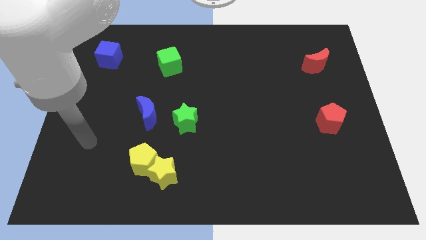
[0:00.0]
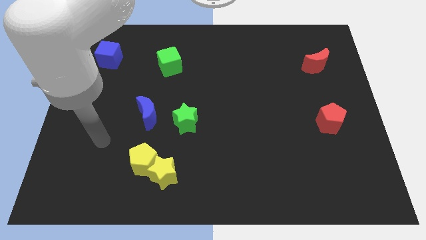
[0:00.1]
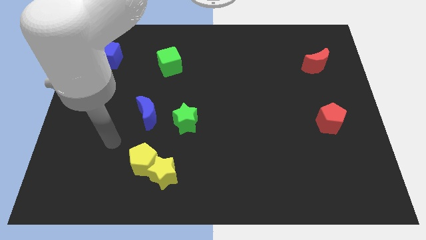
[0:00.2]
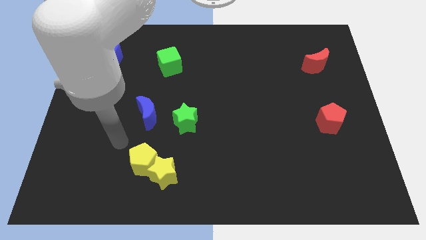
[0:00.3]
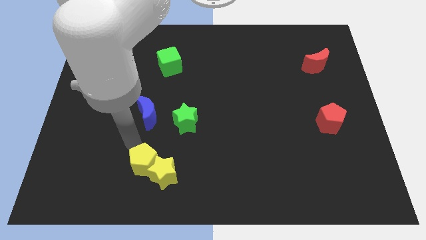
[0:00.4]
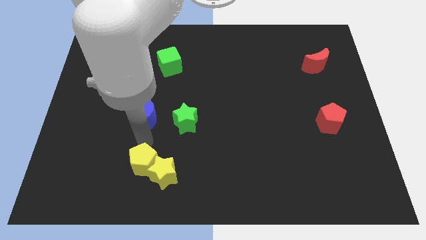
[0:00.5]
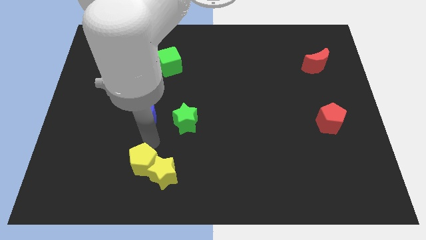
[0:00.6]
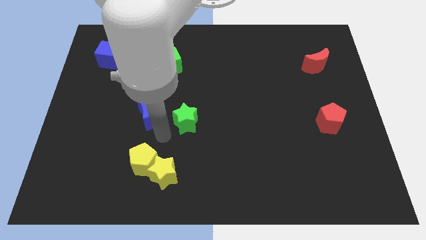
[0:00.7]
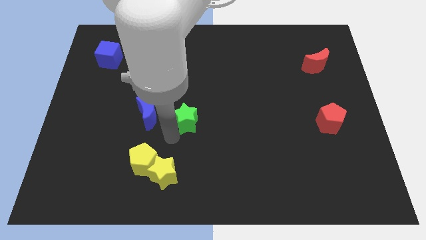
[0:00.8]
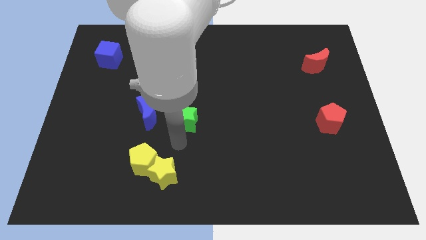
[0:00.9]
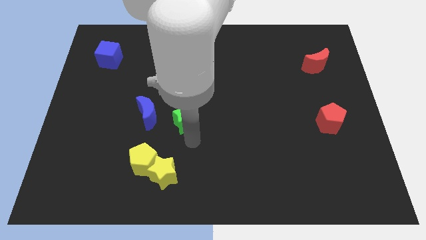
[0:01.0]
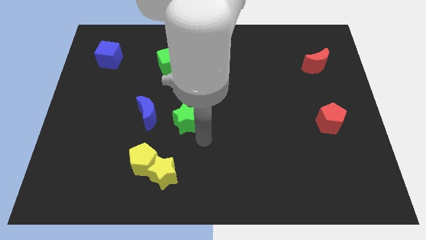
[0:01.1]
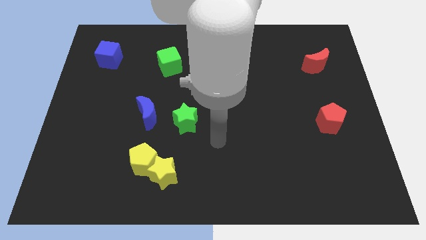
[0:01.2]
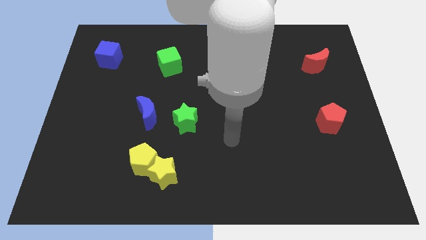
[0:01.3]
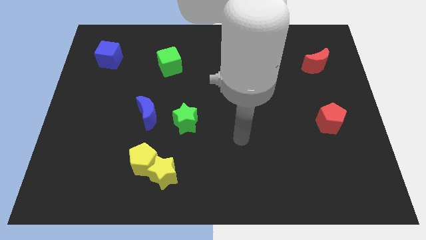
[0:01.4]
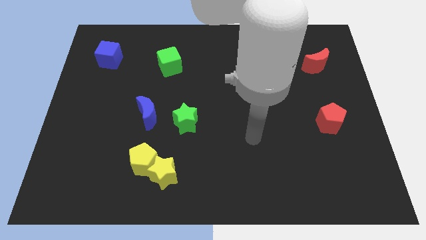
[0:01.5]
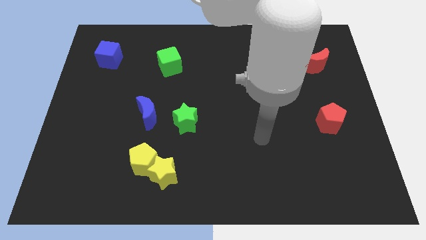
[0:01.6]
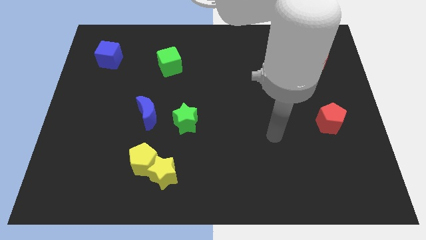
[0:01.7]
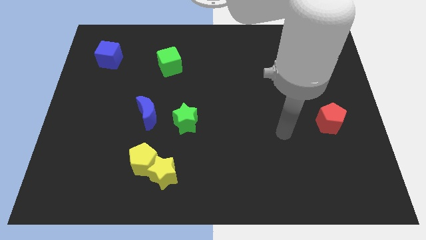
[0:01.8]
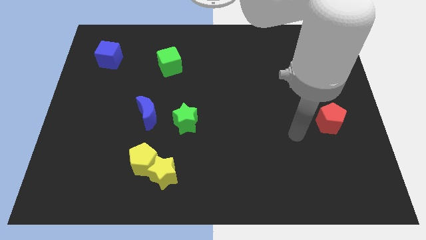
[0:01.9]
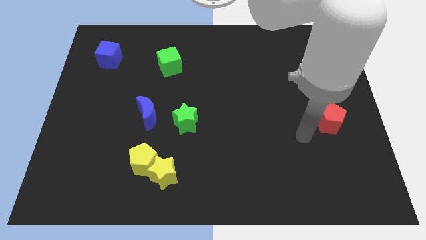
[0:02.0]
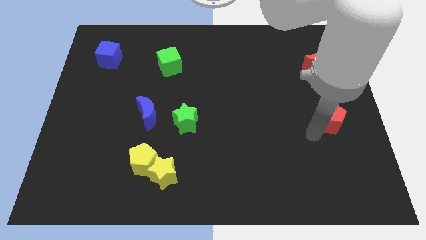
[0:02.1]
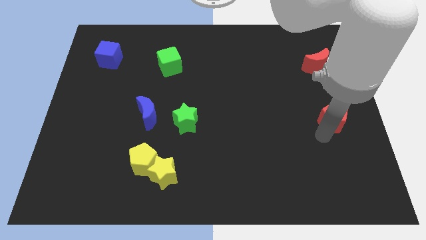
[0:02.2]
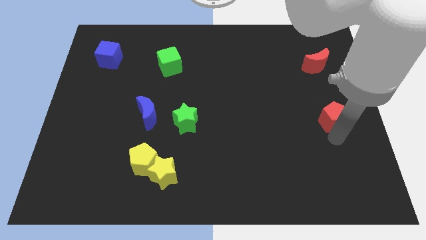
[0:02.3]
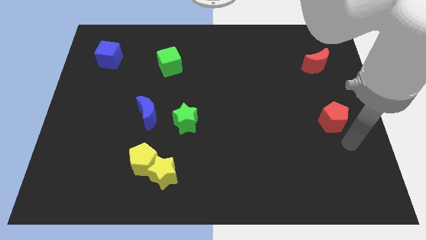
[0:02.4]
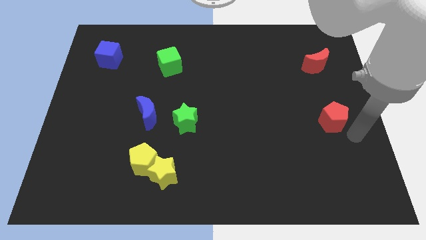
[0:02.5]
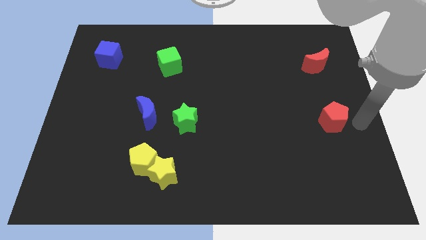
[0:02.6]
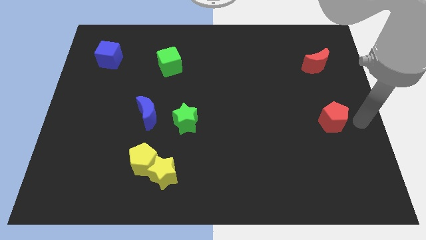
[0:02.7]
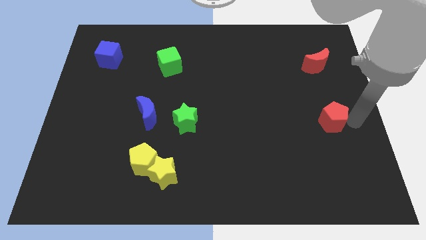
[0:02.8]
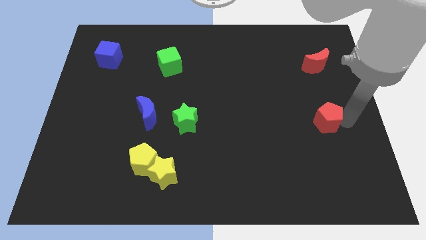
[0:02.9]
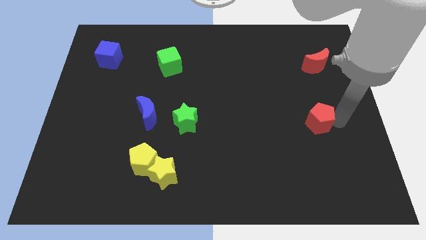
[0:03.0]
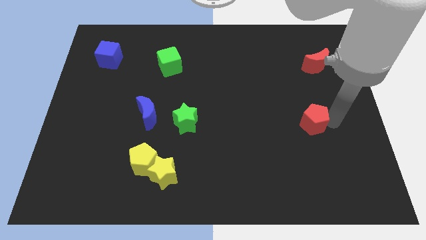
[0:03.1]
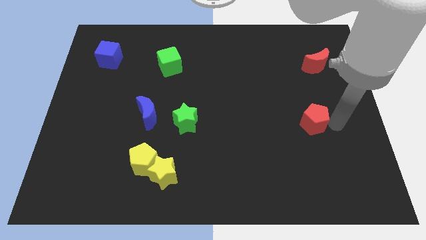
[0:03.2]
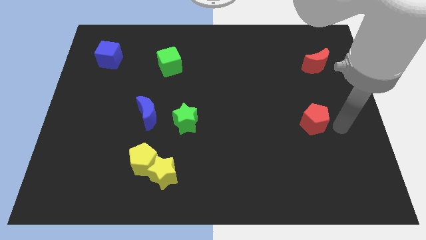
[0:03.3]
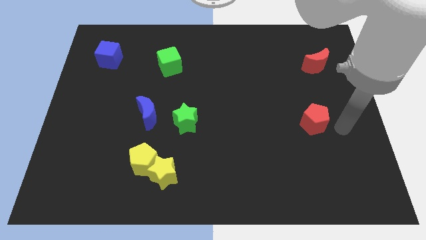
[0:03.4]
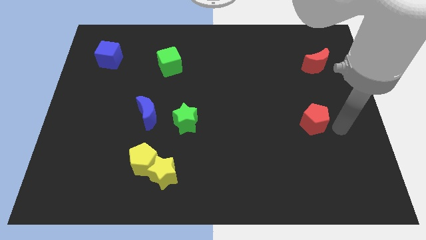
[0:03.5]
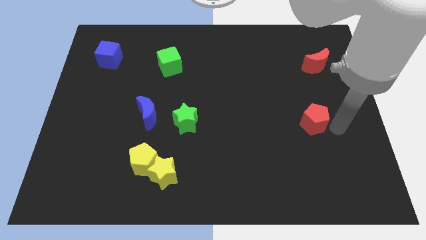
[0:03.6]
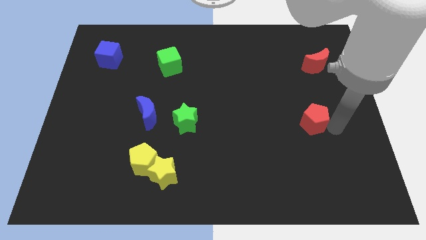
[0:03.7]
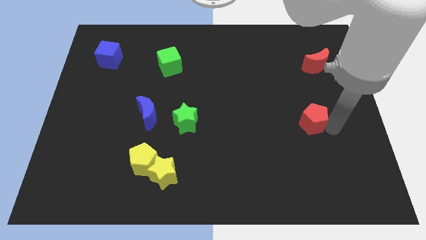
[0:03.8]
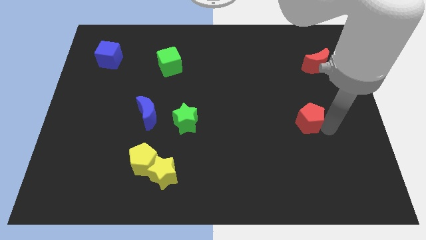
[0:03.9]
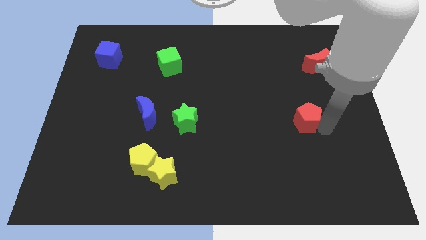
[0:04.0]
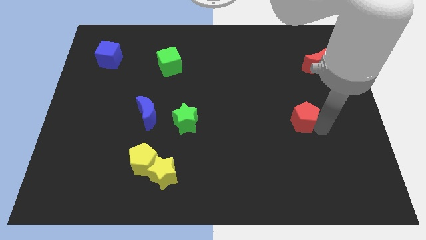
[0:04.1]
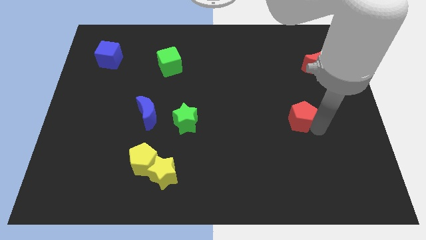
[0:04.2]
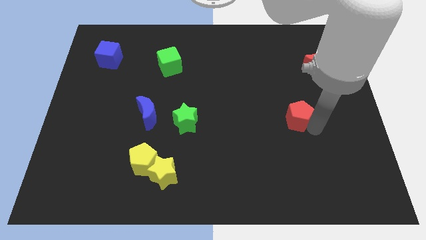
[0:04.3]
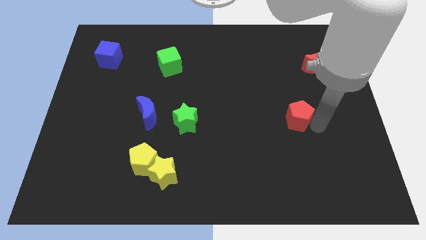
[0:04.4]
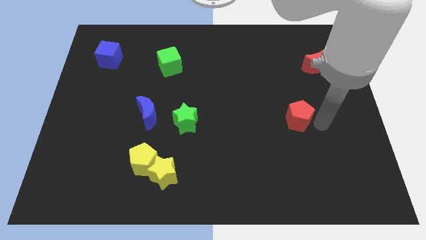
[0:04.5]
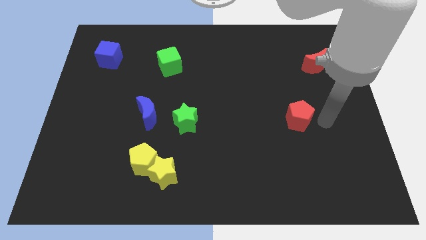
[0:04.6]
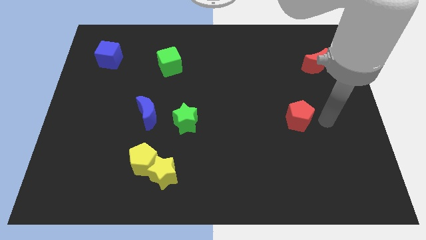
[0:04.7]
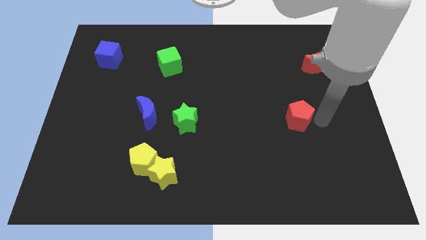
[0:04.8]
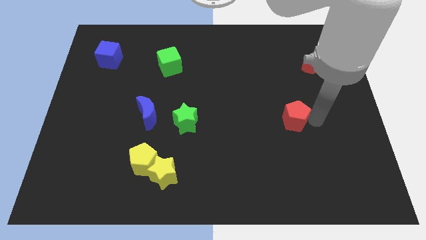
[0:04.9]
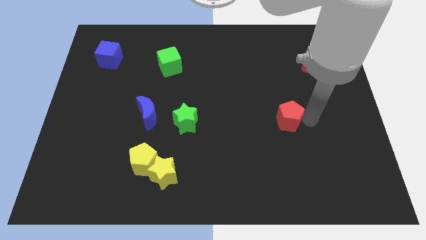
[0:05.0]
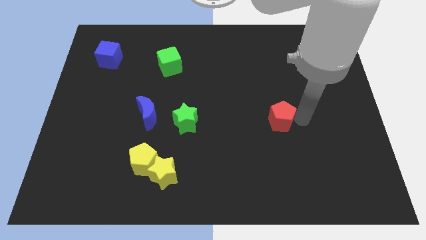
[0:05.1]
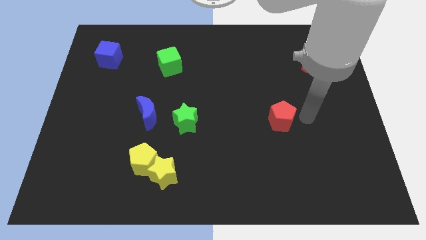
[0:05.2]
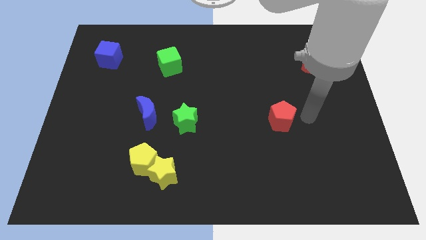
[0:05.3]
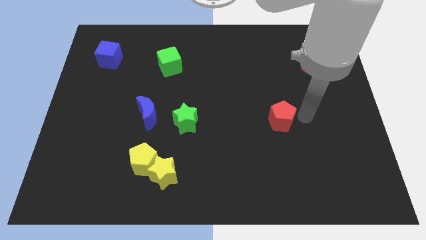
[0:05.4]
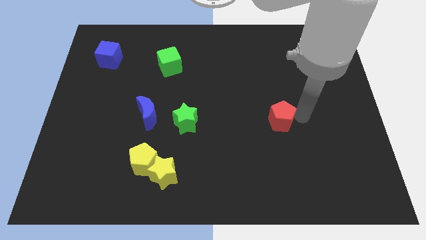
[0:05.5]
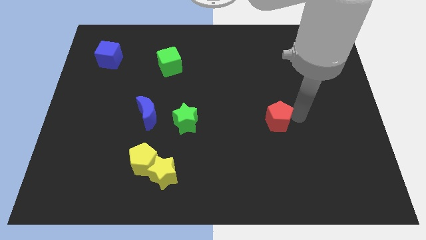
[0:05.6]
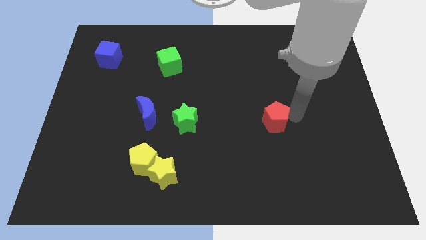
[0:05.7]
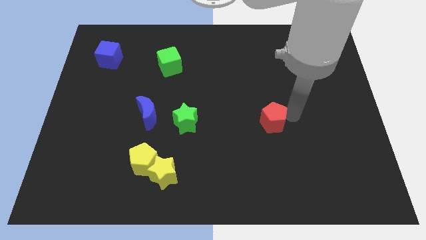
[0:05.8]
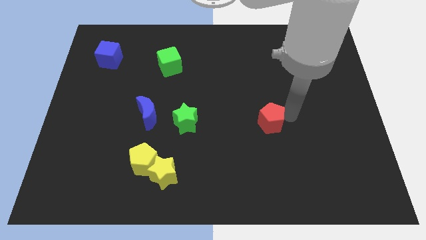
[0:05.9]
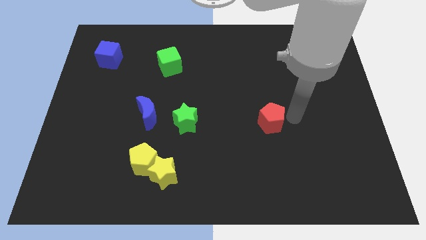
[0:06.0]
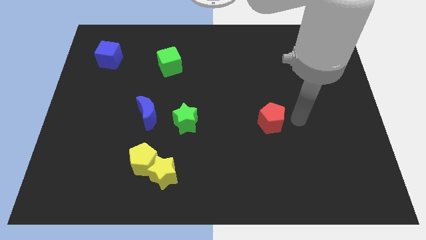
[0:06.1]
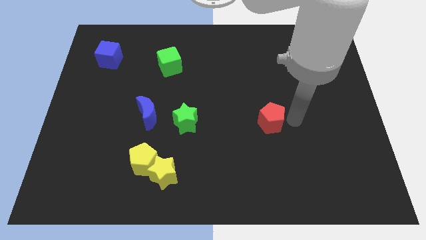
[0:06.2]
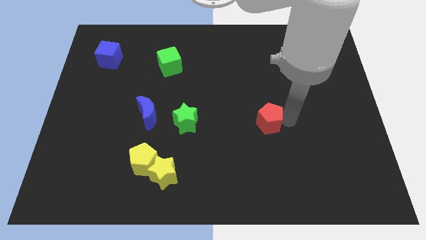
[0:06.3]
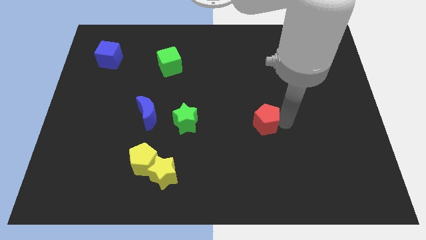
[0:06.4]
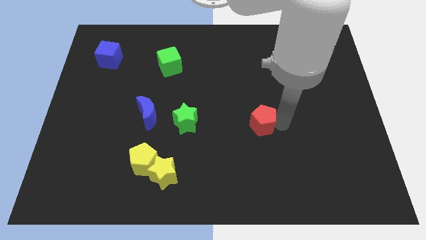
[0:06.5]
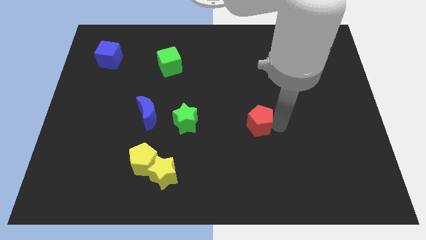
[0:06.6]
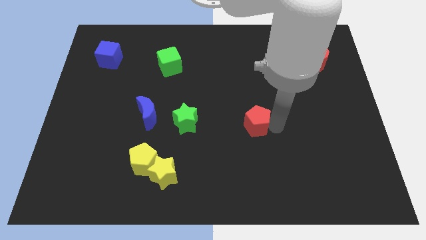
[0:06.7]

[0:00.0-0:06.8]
push the red pentagon to the right of the green star
